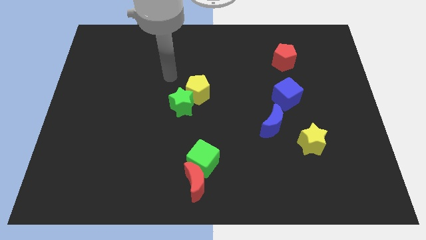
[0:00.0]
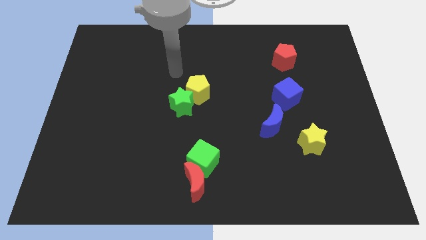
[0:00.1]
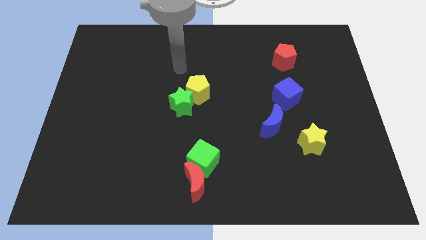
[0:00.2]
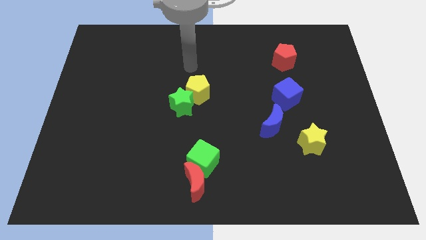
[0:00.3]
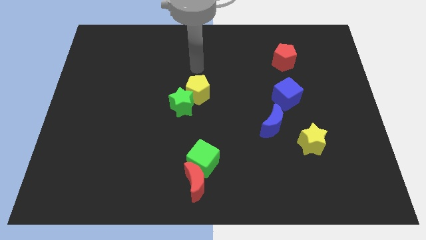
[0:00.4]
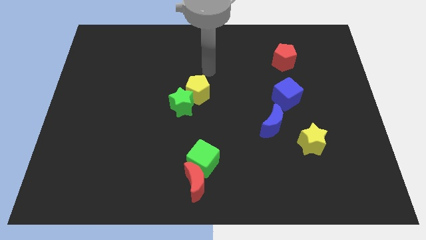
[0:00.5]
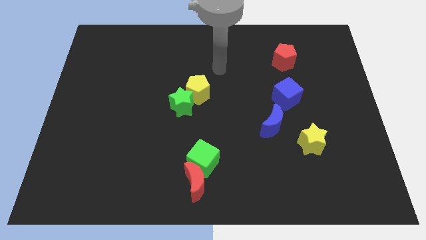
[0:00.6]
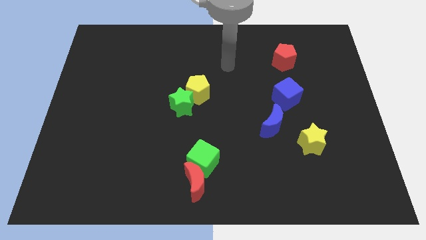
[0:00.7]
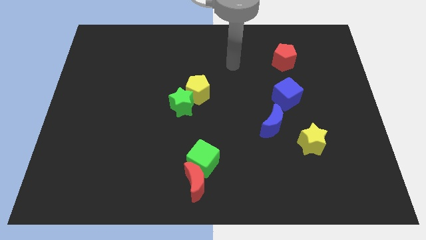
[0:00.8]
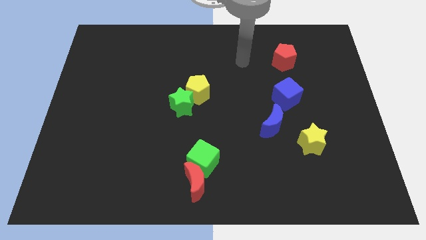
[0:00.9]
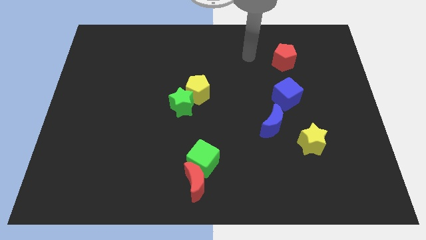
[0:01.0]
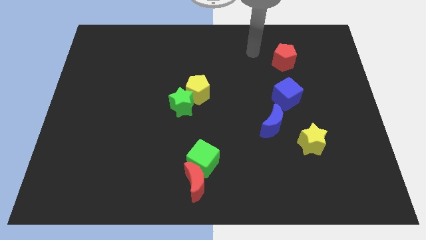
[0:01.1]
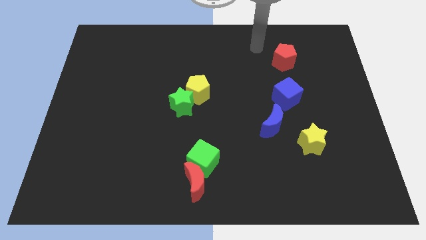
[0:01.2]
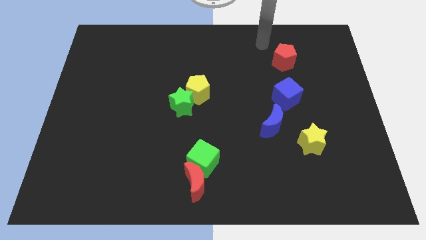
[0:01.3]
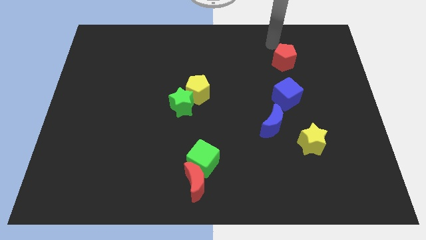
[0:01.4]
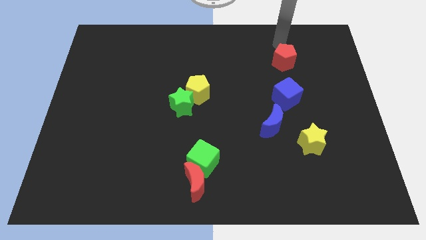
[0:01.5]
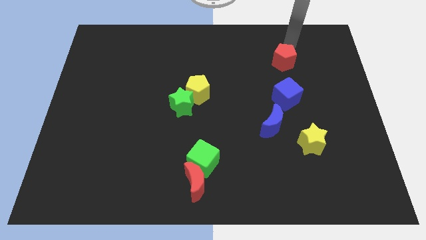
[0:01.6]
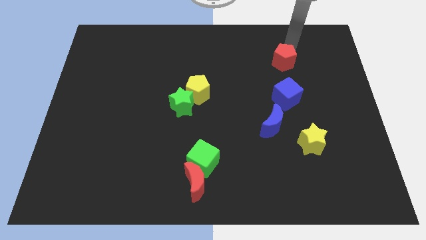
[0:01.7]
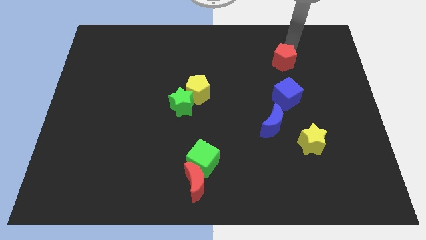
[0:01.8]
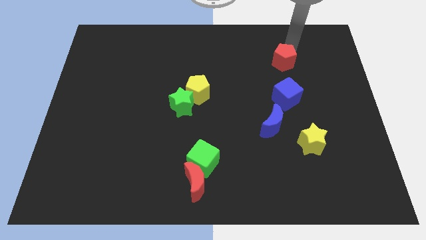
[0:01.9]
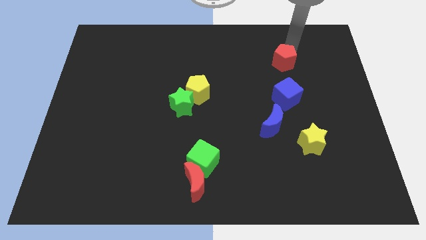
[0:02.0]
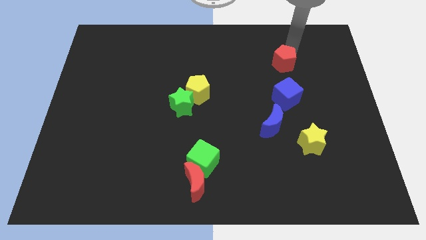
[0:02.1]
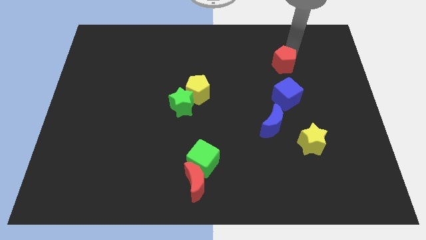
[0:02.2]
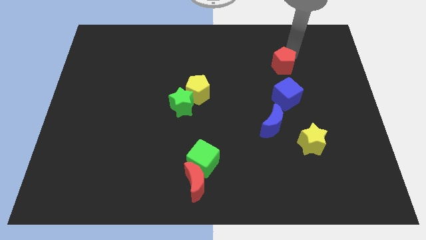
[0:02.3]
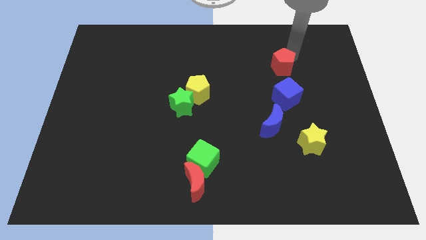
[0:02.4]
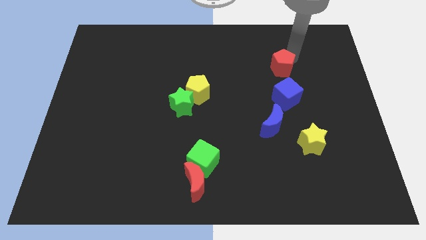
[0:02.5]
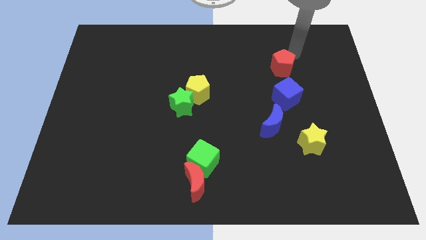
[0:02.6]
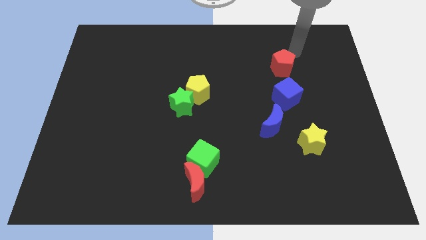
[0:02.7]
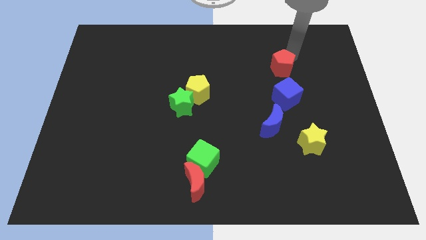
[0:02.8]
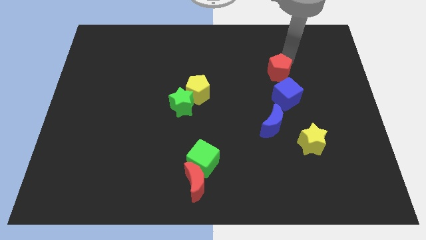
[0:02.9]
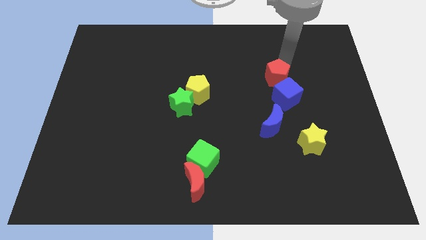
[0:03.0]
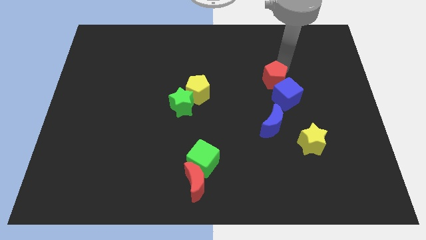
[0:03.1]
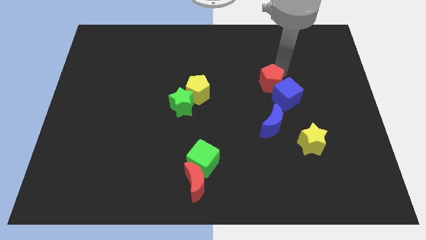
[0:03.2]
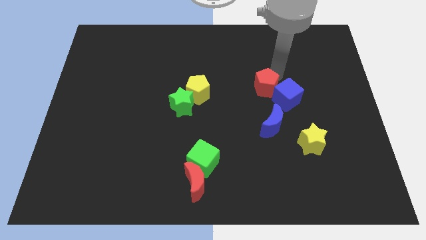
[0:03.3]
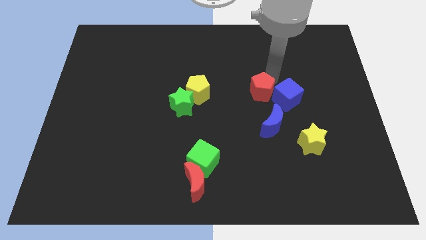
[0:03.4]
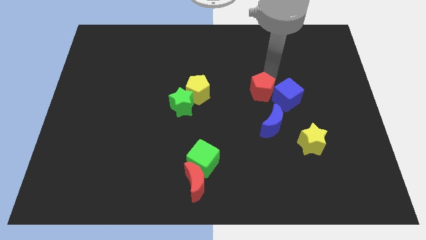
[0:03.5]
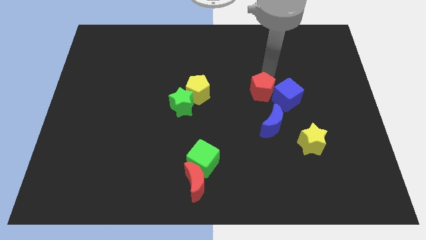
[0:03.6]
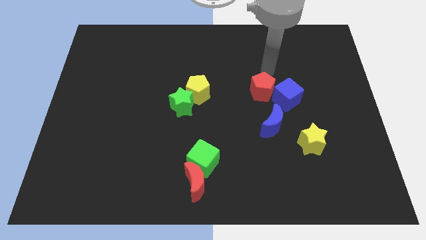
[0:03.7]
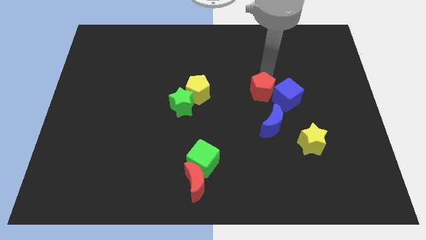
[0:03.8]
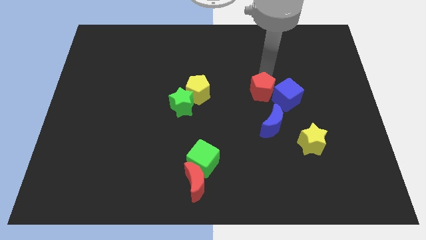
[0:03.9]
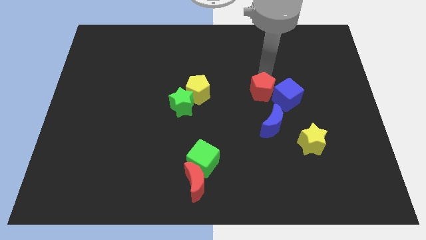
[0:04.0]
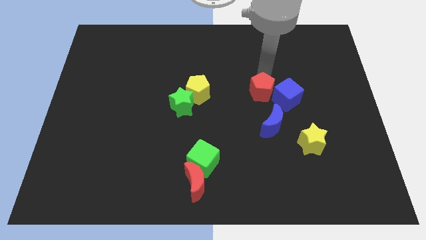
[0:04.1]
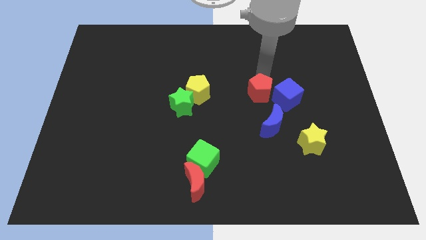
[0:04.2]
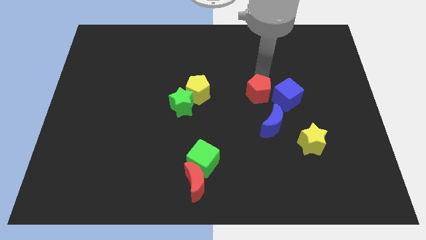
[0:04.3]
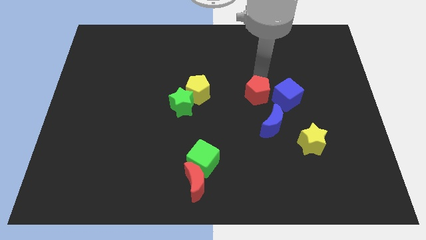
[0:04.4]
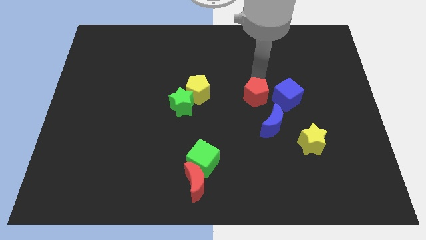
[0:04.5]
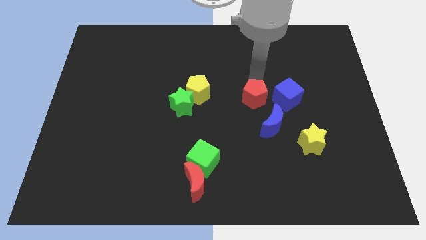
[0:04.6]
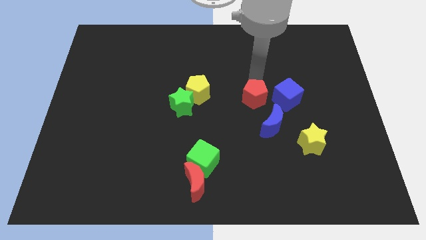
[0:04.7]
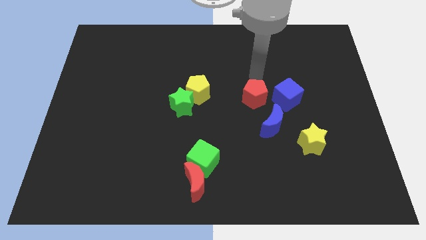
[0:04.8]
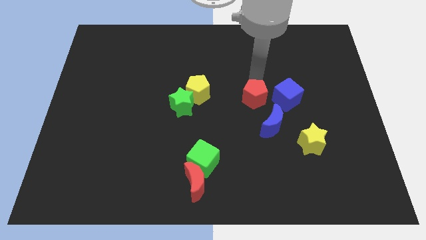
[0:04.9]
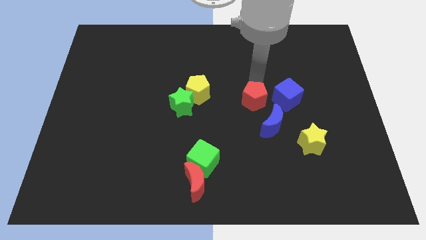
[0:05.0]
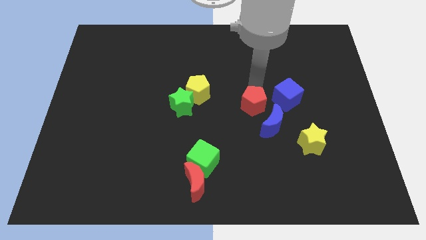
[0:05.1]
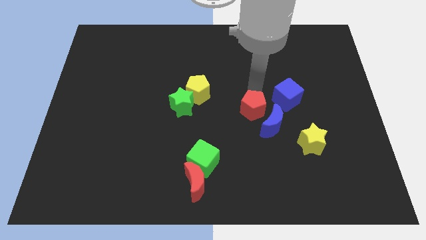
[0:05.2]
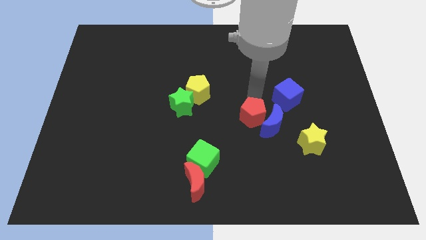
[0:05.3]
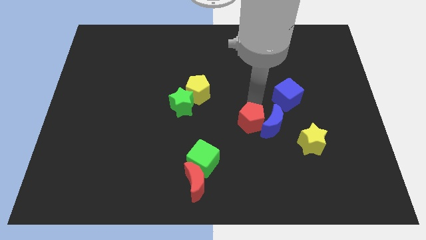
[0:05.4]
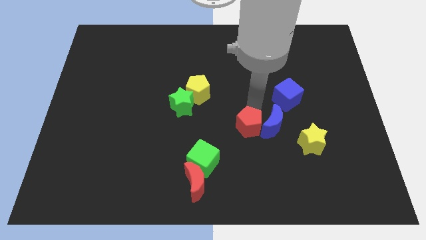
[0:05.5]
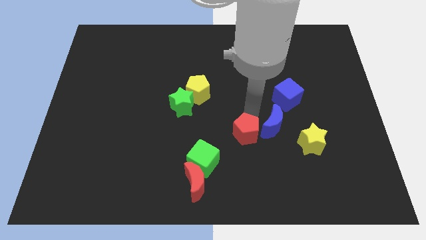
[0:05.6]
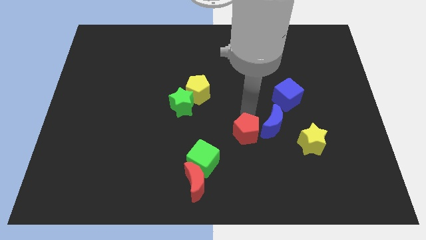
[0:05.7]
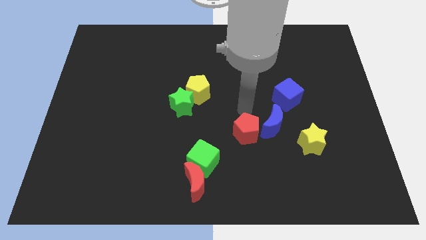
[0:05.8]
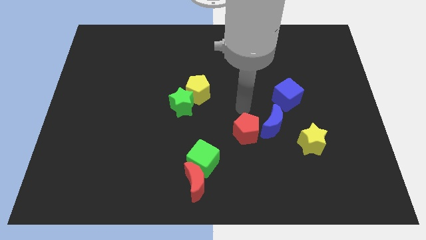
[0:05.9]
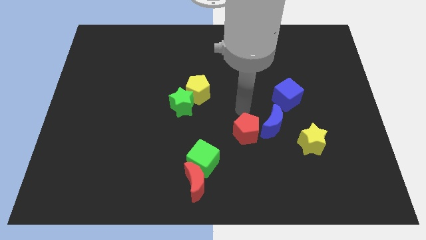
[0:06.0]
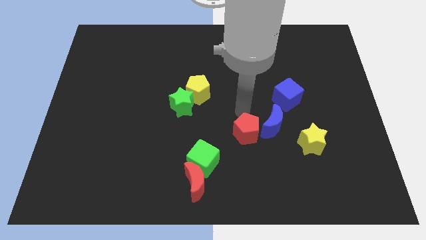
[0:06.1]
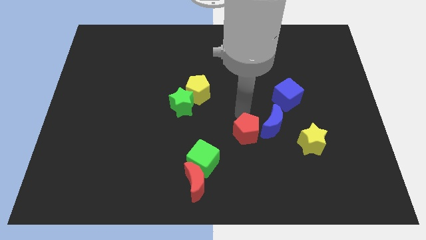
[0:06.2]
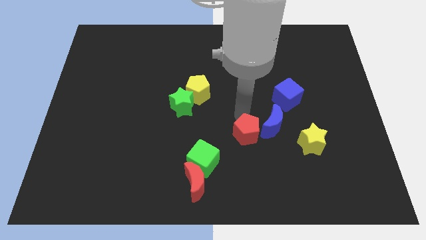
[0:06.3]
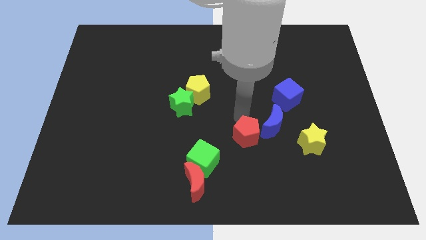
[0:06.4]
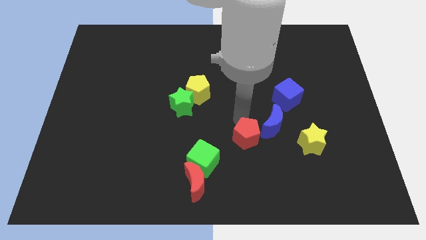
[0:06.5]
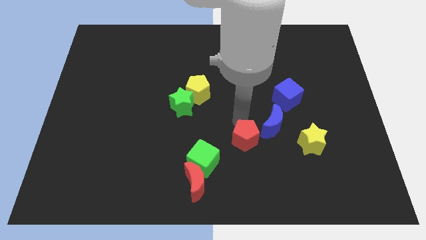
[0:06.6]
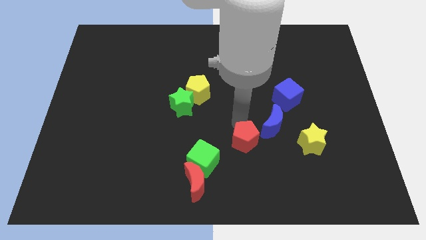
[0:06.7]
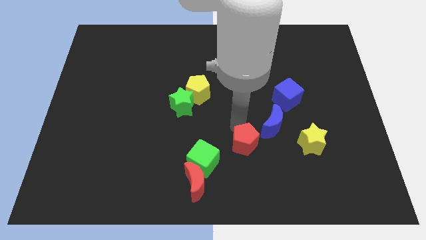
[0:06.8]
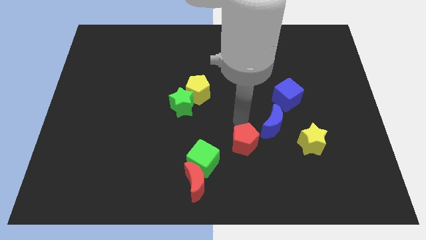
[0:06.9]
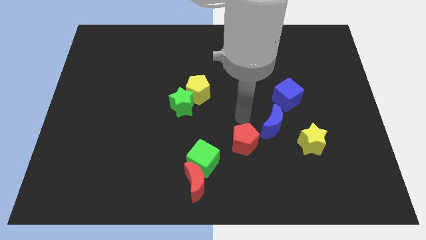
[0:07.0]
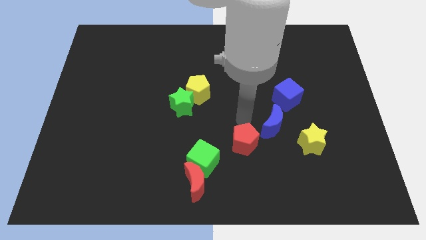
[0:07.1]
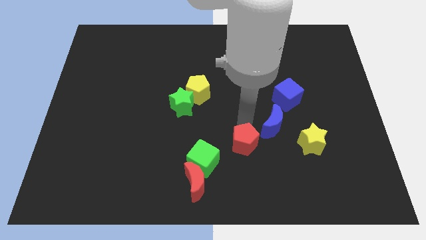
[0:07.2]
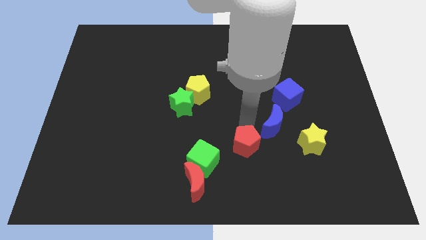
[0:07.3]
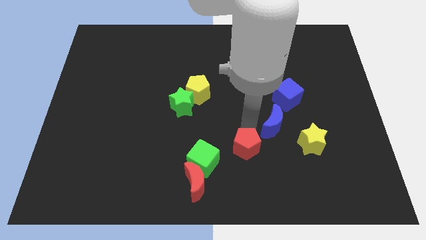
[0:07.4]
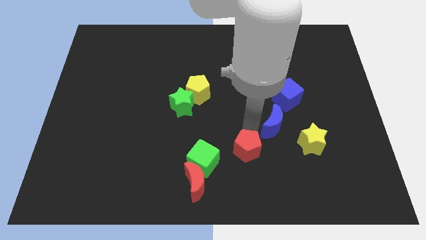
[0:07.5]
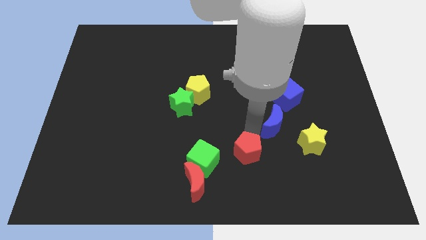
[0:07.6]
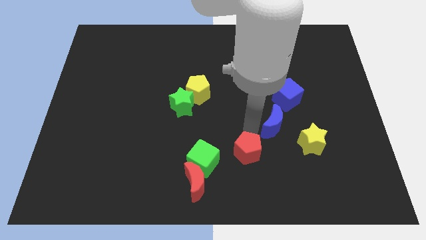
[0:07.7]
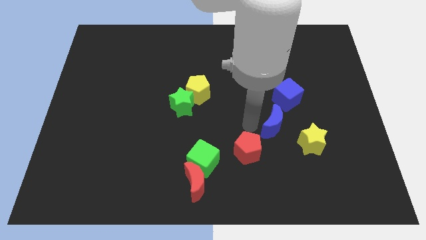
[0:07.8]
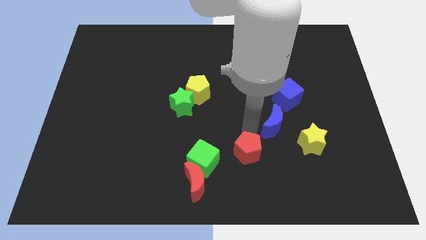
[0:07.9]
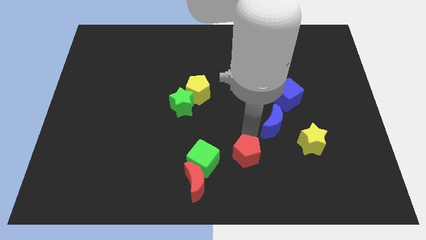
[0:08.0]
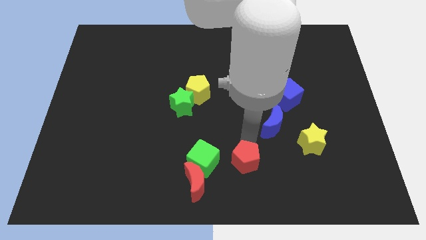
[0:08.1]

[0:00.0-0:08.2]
slide the red pentagon to the bottom side

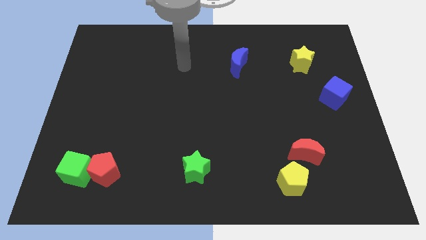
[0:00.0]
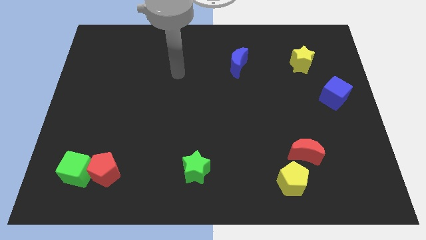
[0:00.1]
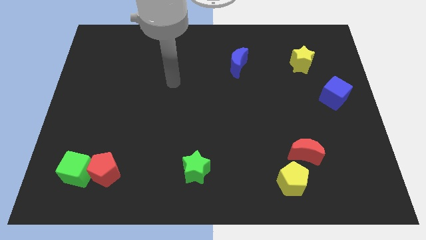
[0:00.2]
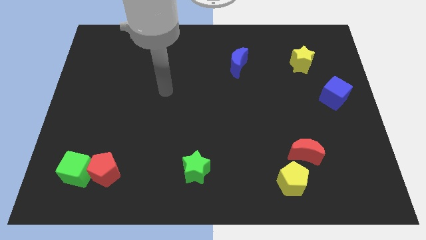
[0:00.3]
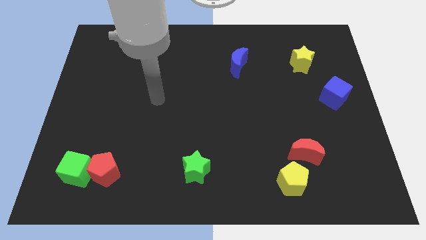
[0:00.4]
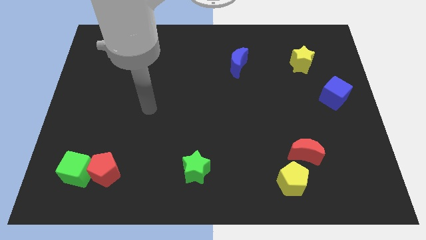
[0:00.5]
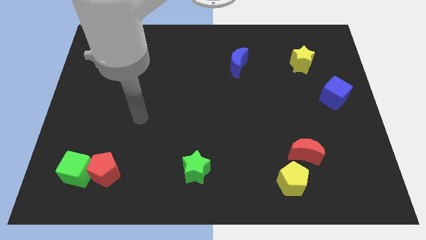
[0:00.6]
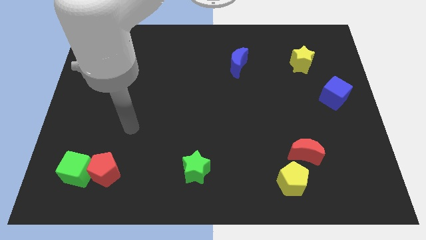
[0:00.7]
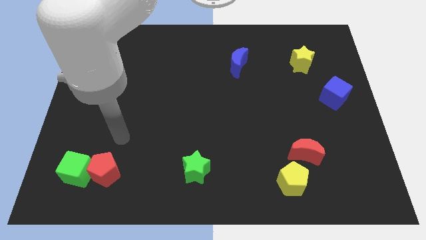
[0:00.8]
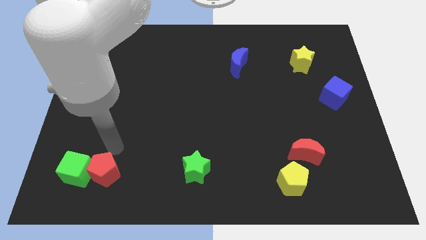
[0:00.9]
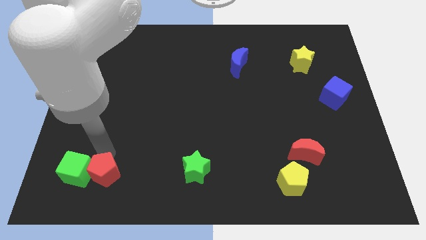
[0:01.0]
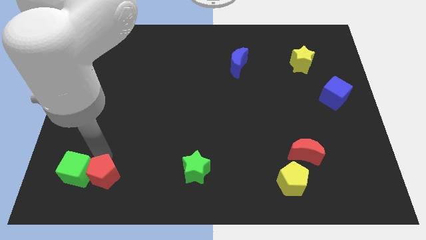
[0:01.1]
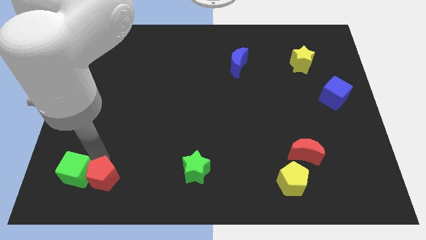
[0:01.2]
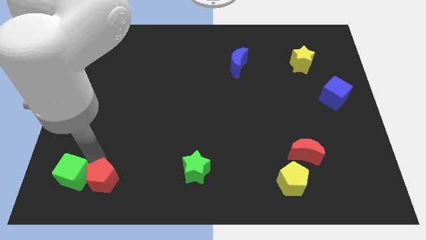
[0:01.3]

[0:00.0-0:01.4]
slide the green cube to the bottom left
